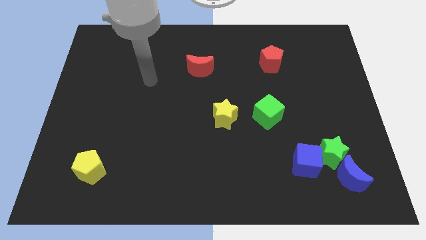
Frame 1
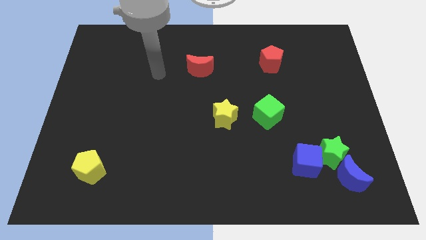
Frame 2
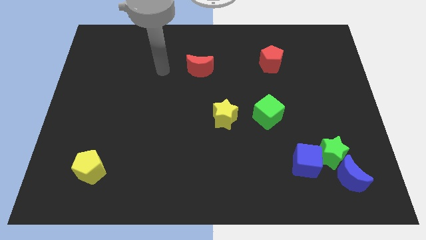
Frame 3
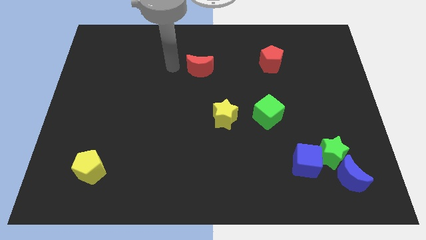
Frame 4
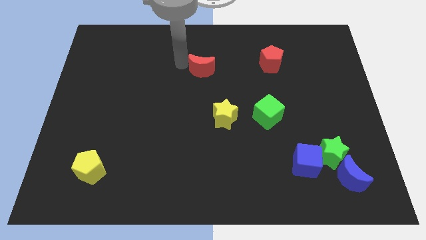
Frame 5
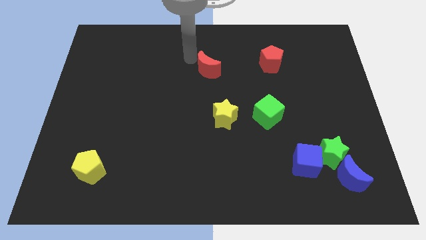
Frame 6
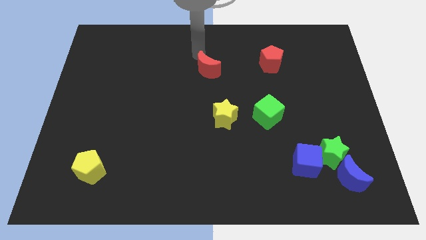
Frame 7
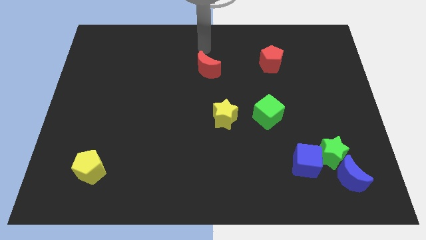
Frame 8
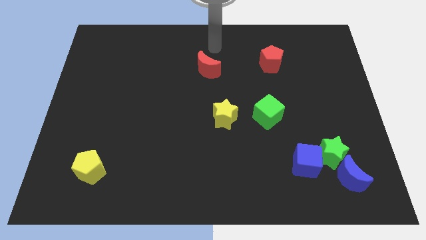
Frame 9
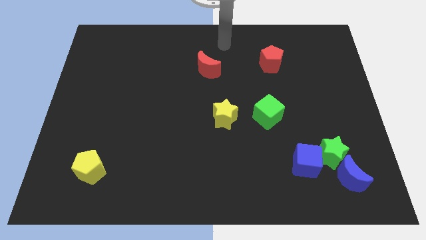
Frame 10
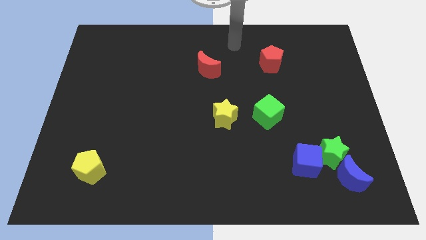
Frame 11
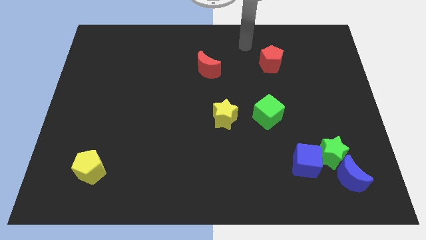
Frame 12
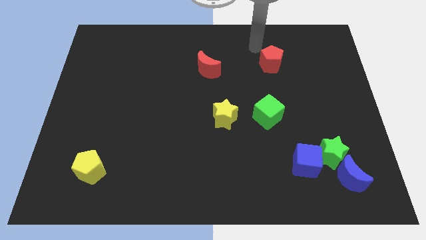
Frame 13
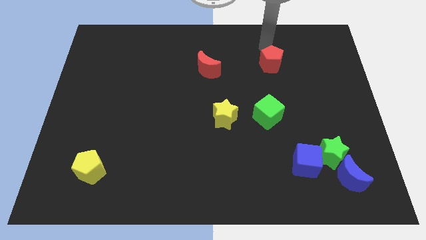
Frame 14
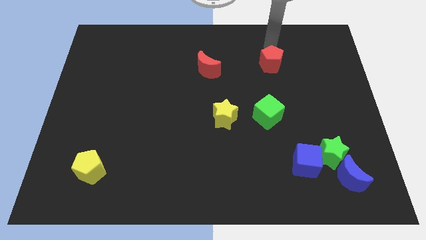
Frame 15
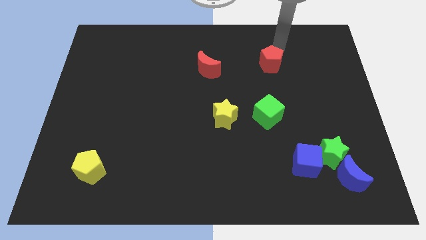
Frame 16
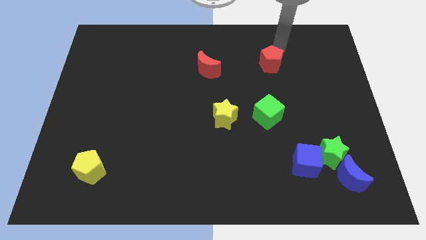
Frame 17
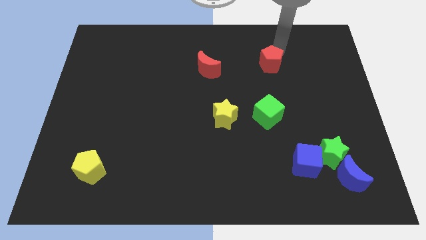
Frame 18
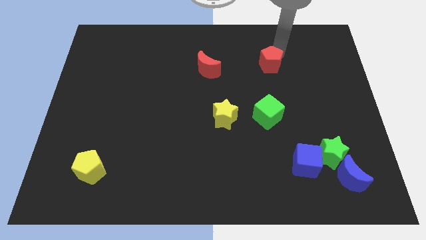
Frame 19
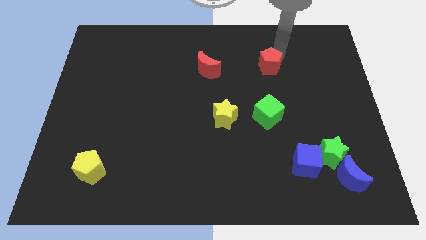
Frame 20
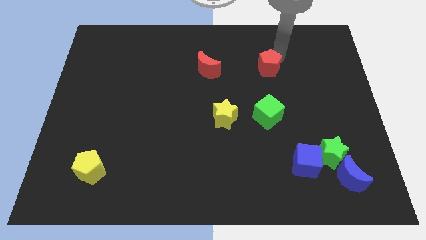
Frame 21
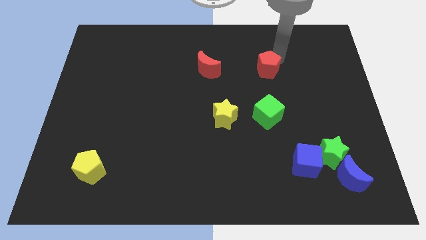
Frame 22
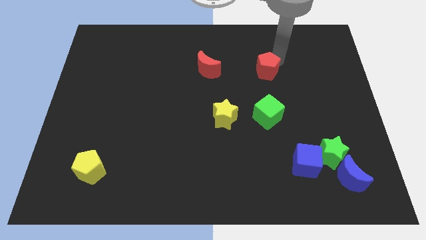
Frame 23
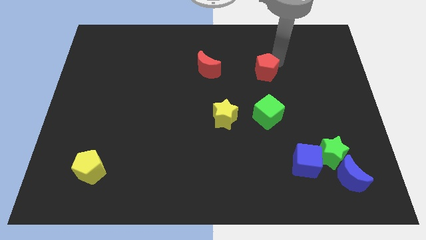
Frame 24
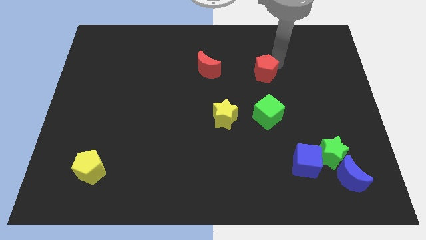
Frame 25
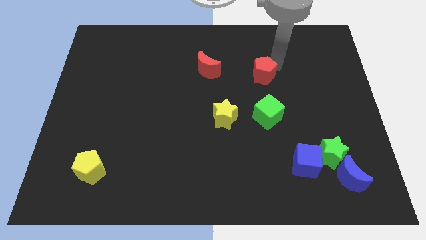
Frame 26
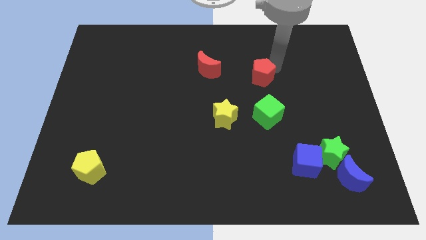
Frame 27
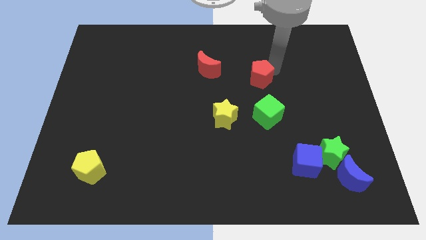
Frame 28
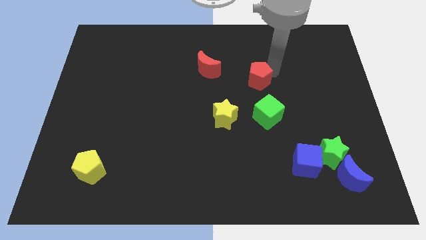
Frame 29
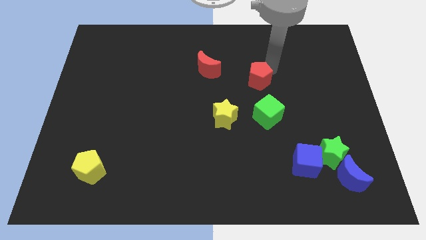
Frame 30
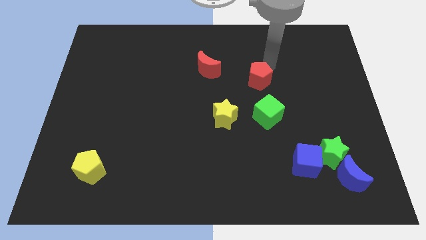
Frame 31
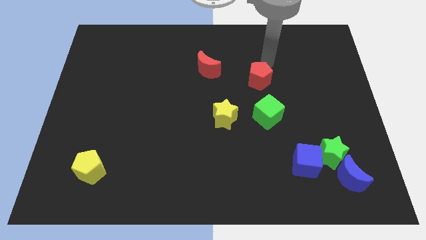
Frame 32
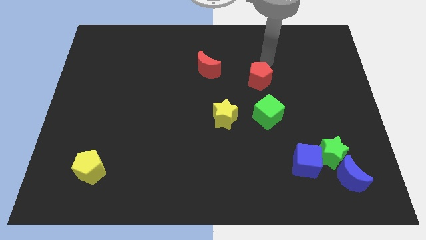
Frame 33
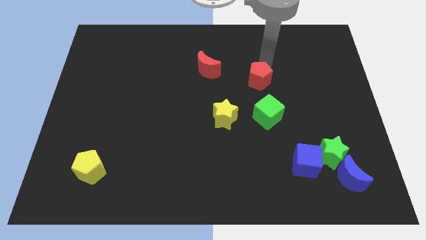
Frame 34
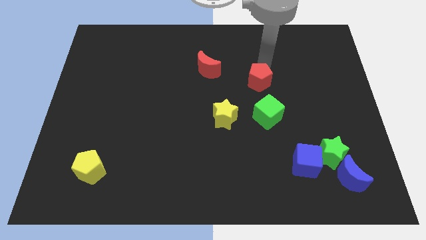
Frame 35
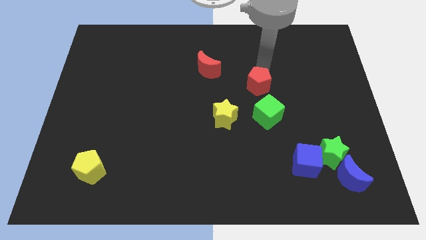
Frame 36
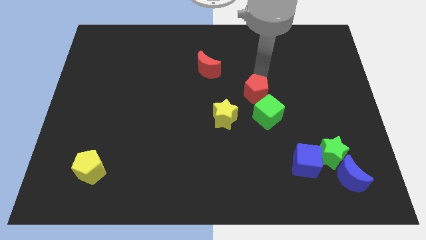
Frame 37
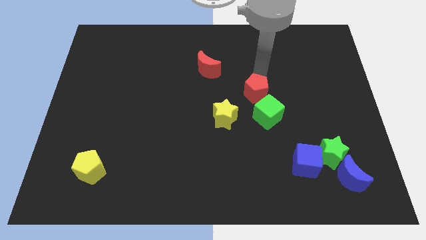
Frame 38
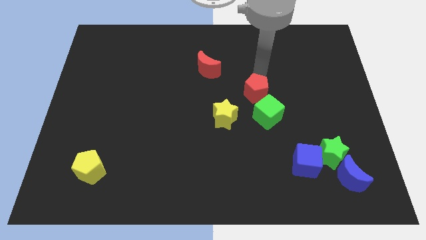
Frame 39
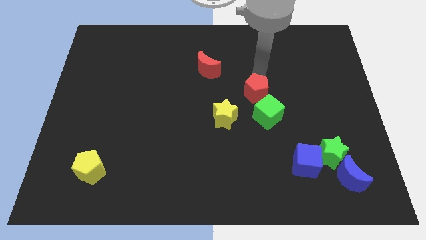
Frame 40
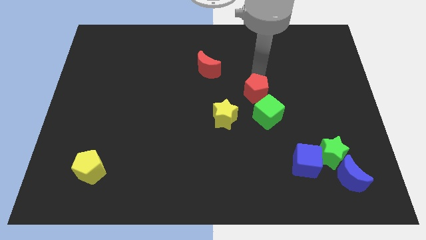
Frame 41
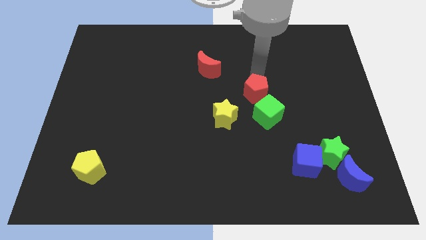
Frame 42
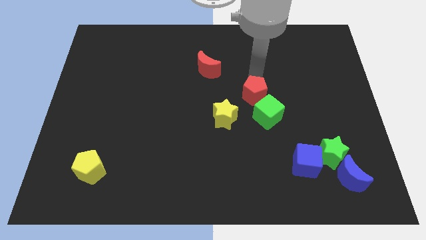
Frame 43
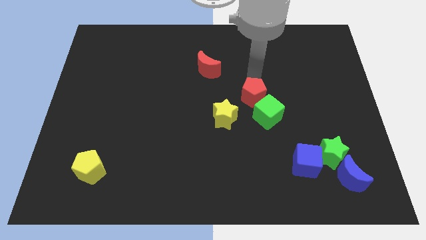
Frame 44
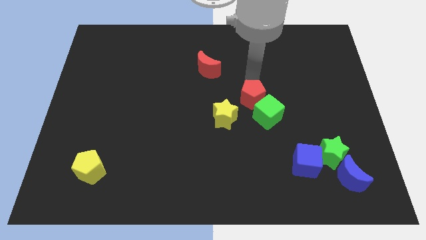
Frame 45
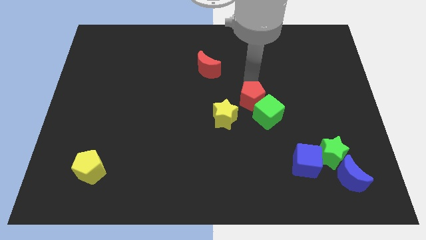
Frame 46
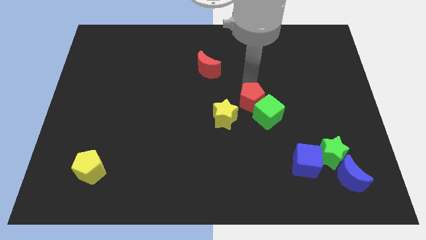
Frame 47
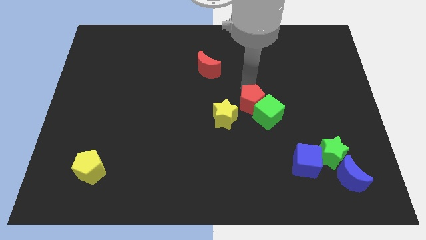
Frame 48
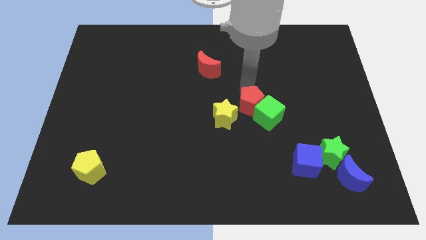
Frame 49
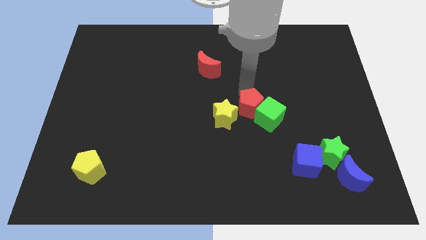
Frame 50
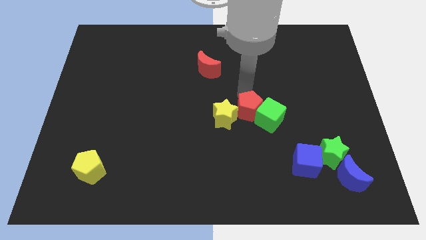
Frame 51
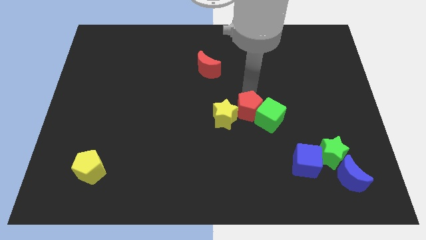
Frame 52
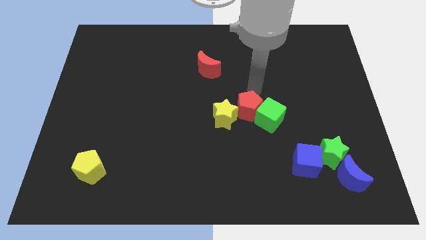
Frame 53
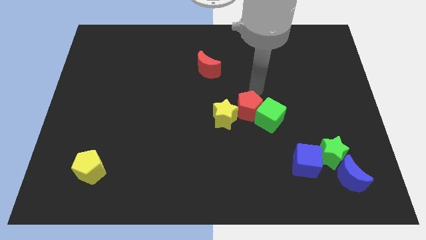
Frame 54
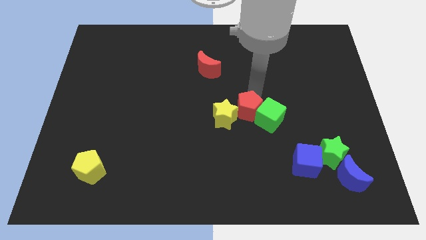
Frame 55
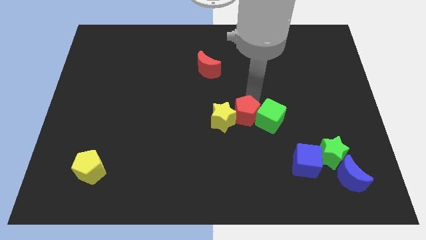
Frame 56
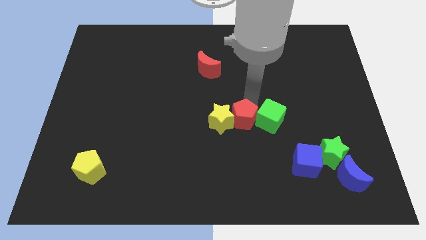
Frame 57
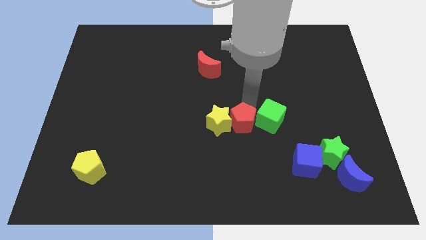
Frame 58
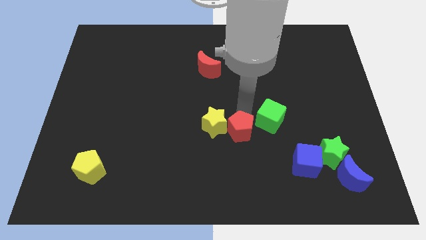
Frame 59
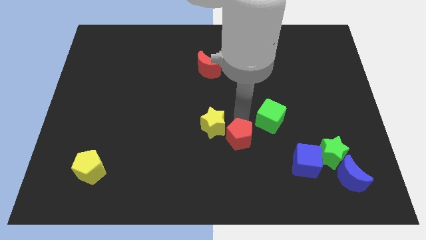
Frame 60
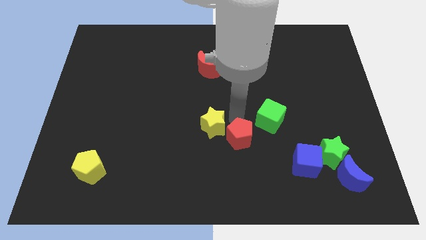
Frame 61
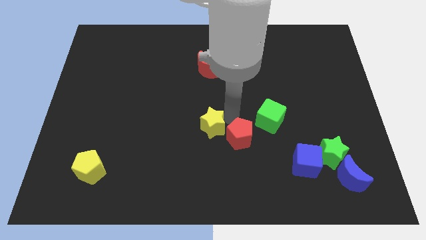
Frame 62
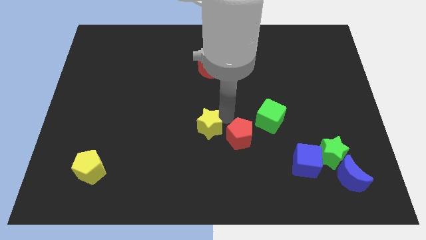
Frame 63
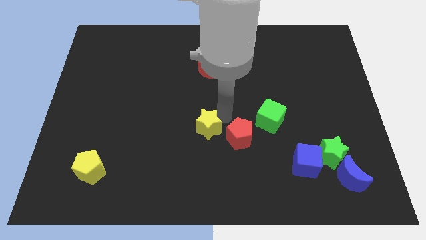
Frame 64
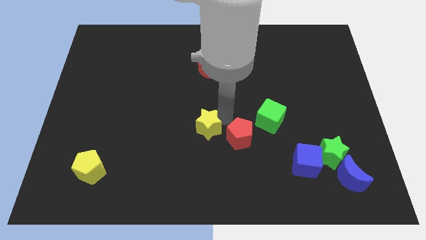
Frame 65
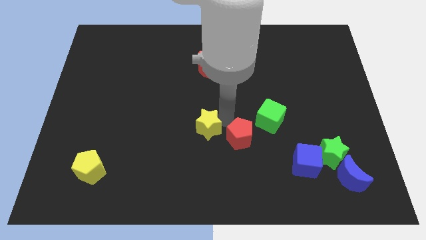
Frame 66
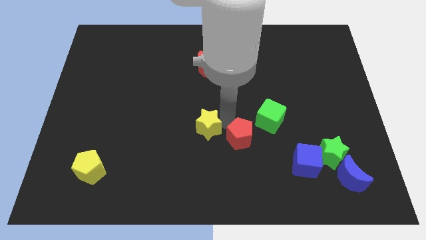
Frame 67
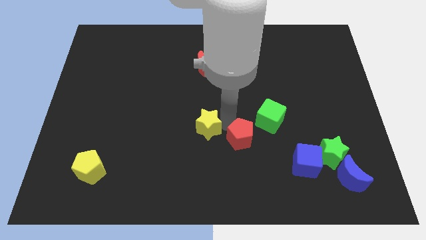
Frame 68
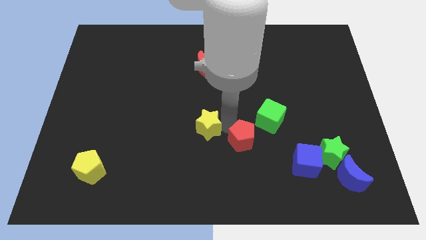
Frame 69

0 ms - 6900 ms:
move the red pentagon down

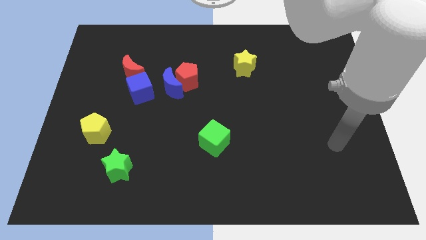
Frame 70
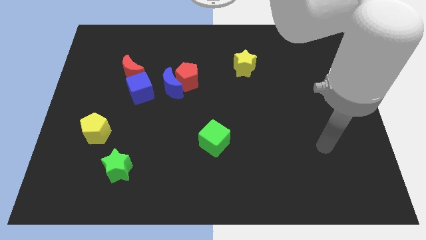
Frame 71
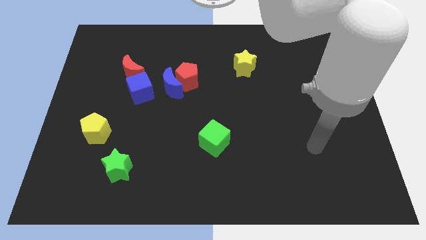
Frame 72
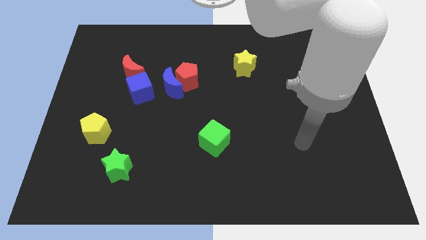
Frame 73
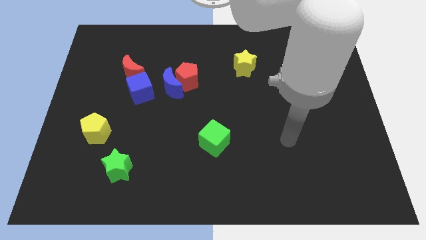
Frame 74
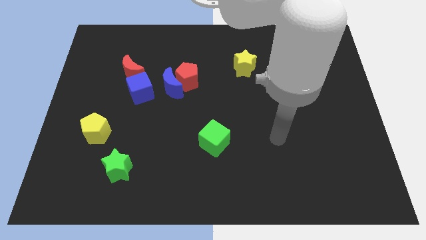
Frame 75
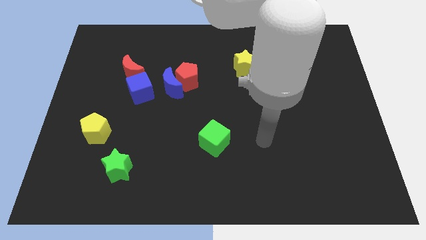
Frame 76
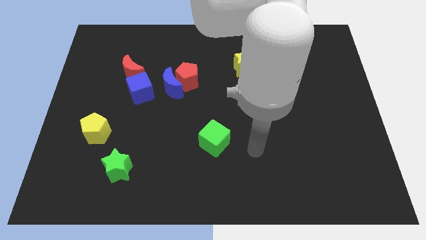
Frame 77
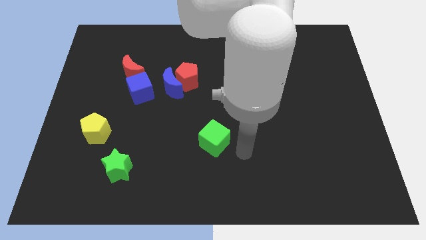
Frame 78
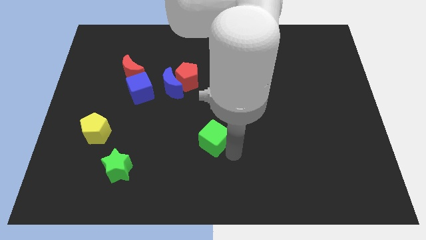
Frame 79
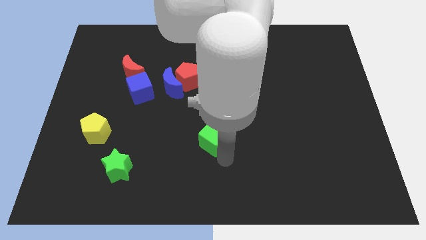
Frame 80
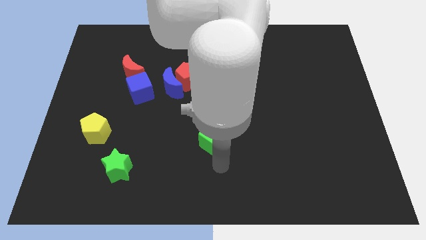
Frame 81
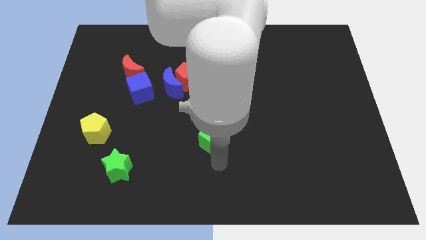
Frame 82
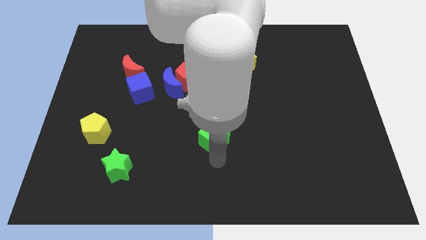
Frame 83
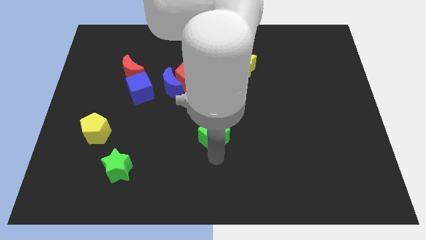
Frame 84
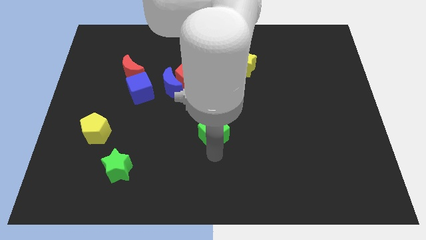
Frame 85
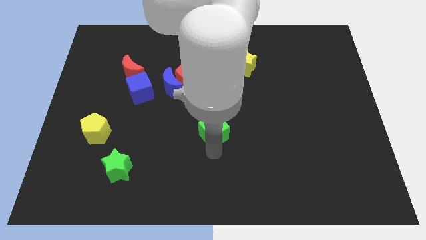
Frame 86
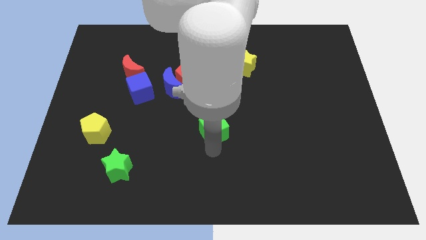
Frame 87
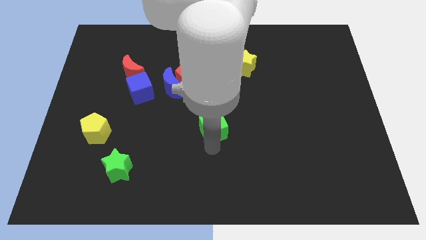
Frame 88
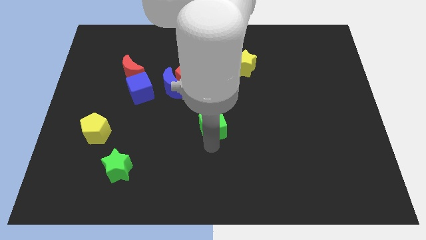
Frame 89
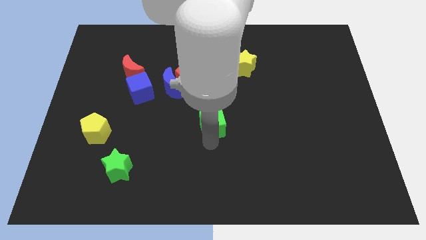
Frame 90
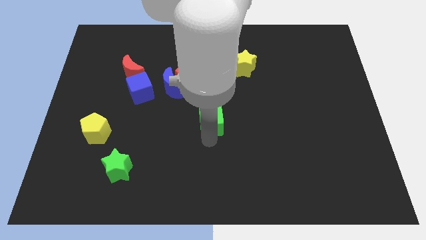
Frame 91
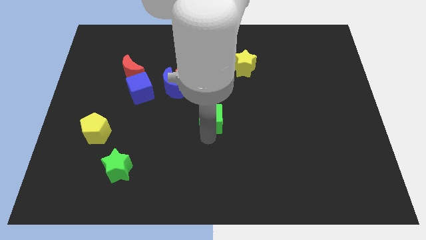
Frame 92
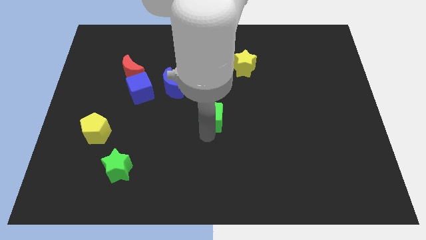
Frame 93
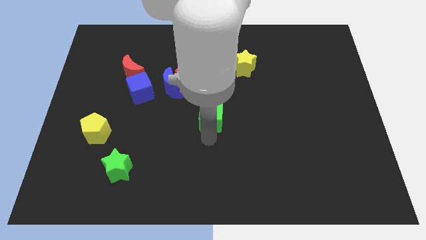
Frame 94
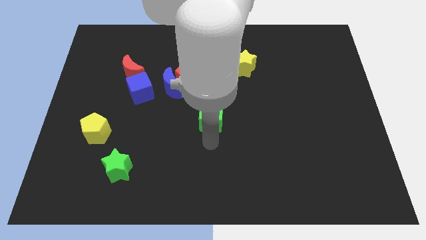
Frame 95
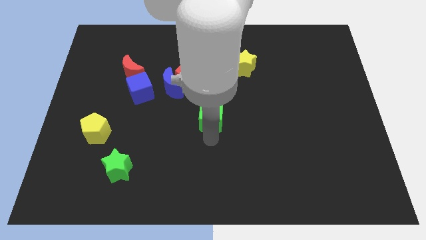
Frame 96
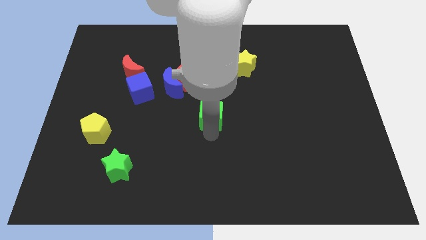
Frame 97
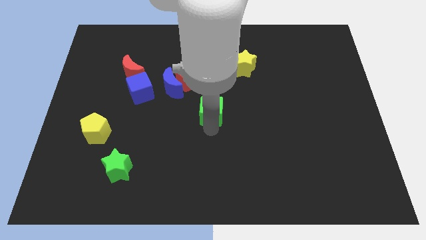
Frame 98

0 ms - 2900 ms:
push the green cube slightly up
